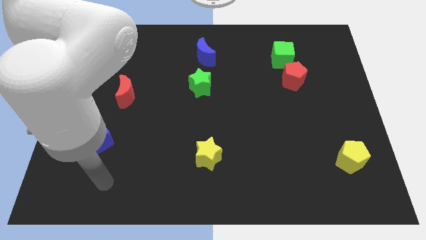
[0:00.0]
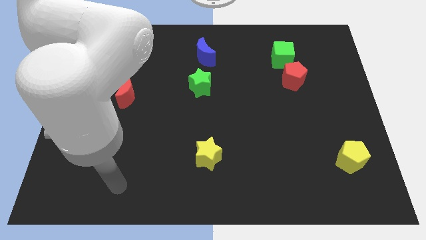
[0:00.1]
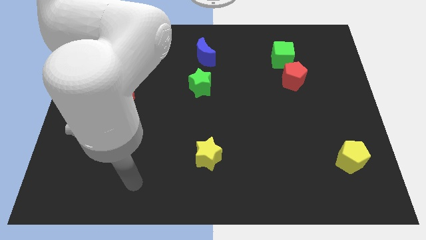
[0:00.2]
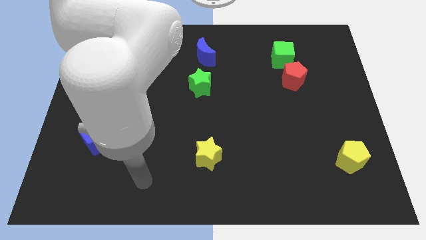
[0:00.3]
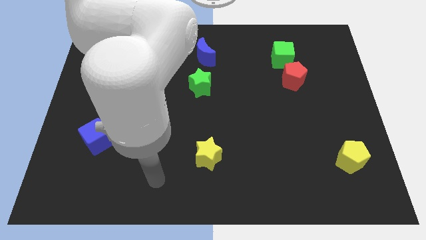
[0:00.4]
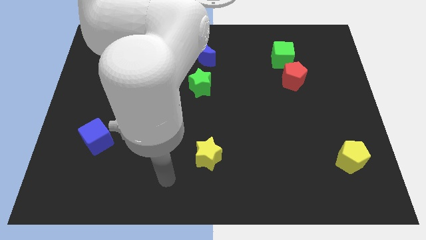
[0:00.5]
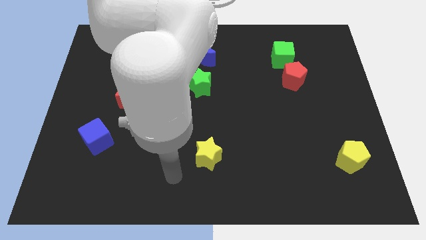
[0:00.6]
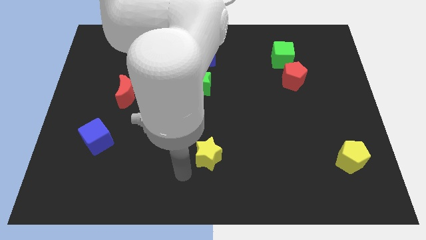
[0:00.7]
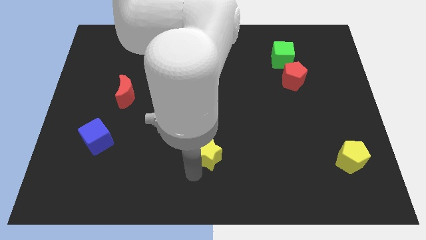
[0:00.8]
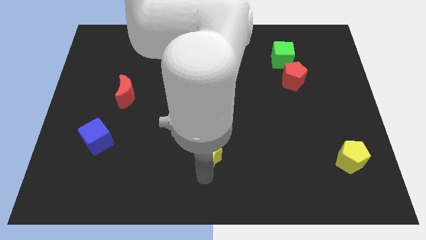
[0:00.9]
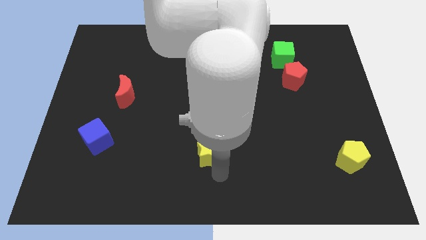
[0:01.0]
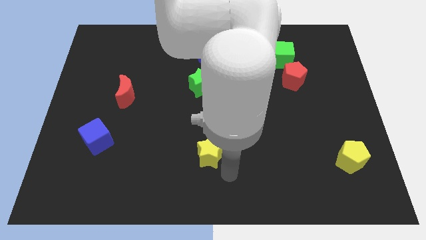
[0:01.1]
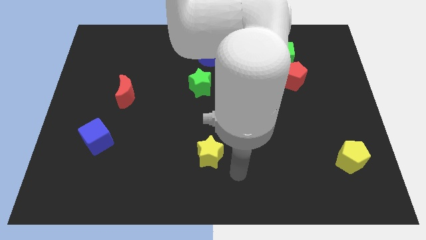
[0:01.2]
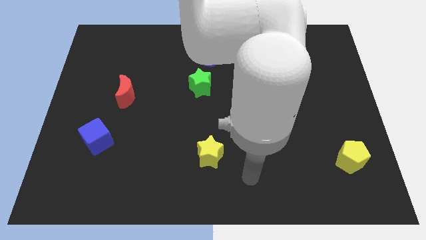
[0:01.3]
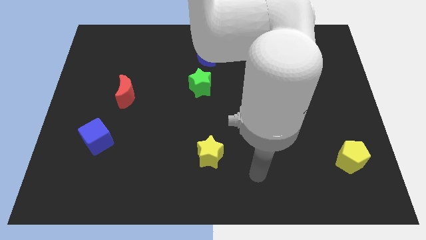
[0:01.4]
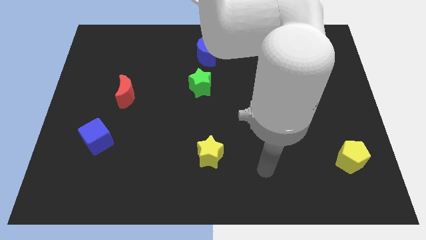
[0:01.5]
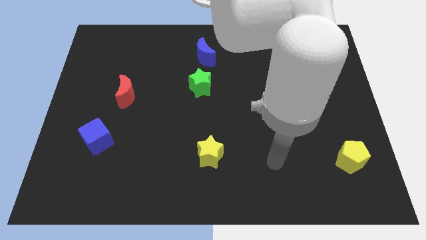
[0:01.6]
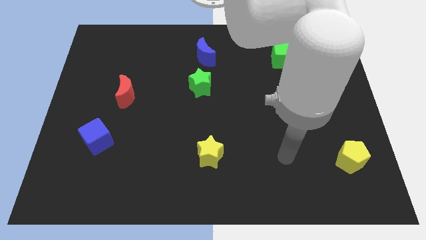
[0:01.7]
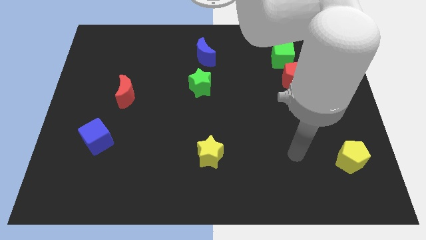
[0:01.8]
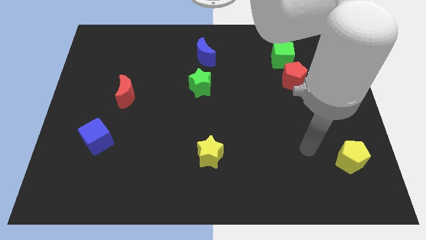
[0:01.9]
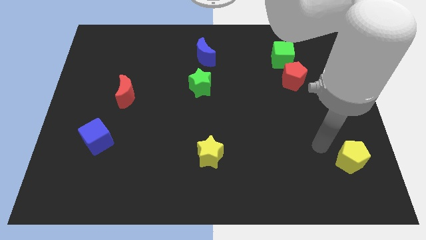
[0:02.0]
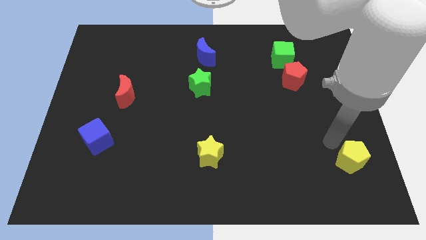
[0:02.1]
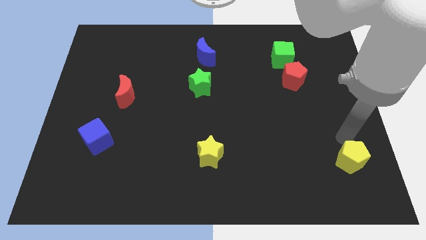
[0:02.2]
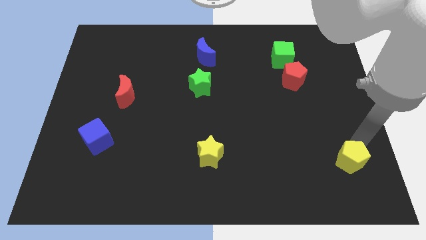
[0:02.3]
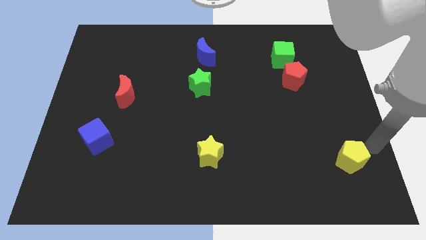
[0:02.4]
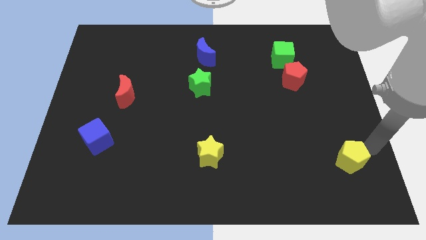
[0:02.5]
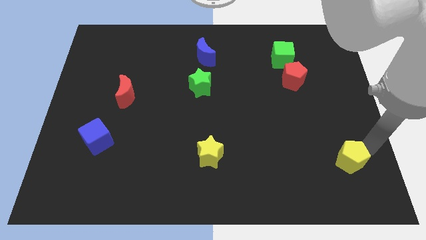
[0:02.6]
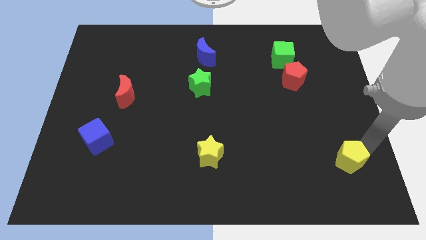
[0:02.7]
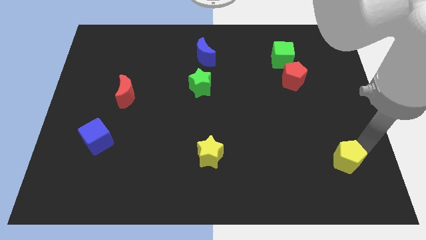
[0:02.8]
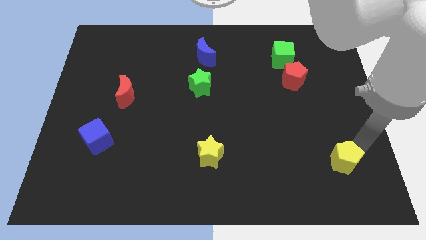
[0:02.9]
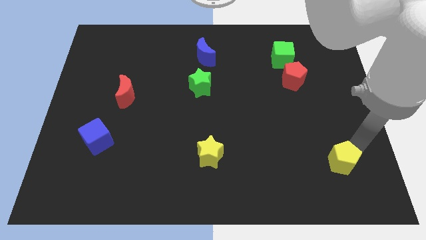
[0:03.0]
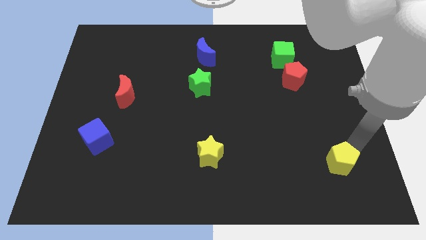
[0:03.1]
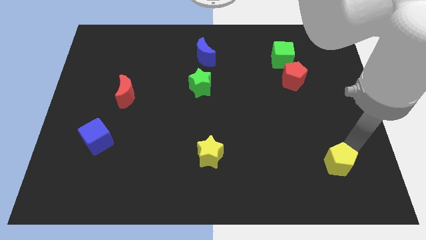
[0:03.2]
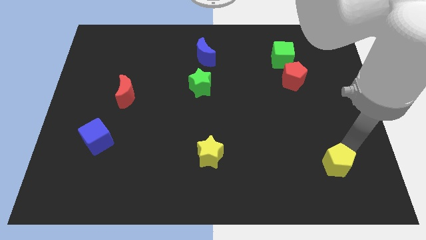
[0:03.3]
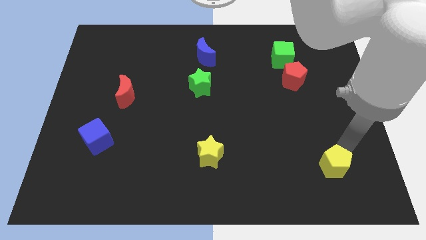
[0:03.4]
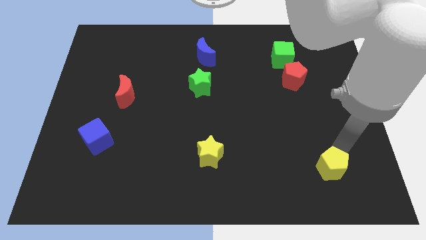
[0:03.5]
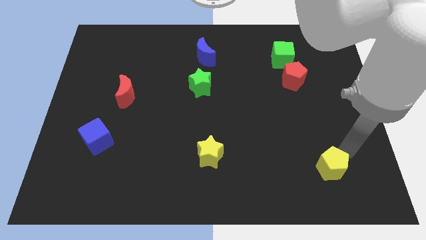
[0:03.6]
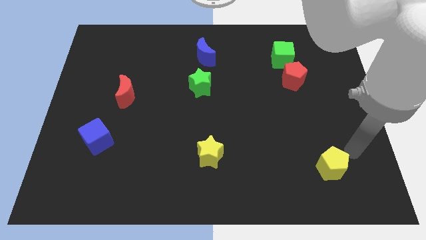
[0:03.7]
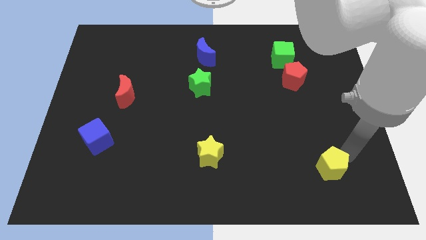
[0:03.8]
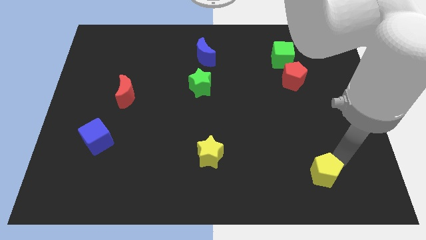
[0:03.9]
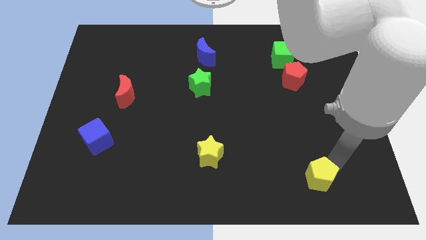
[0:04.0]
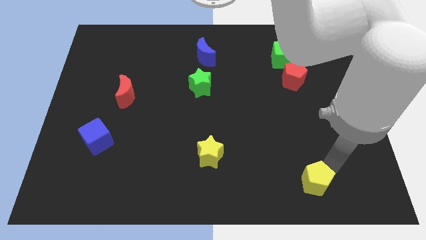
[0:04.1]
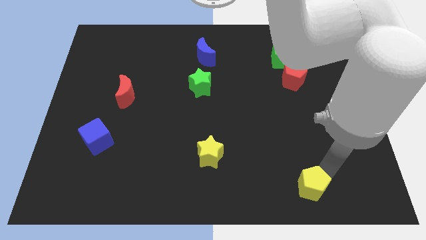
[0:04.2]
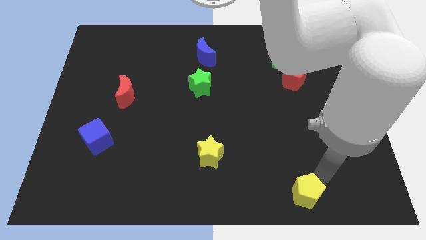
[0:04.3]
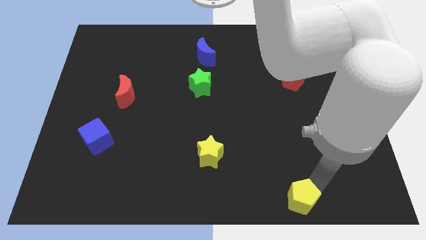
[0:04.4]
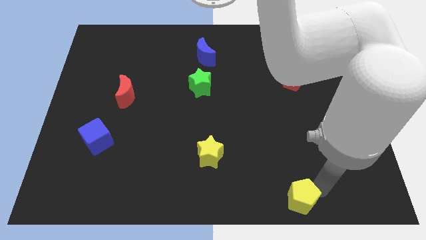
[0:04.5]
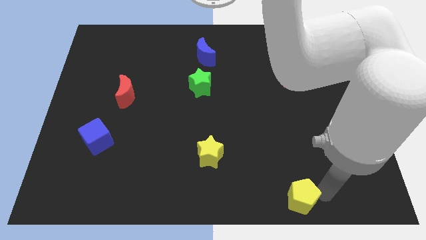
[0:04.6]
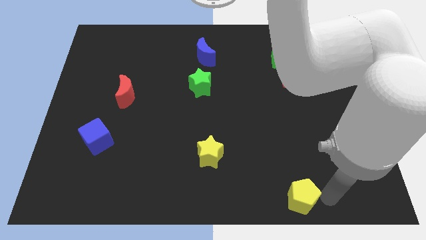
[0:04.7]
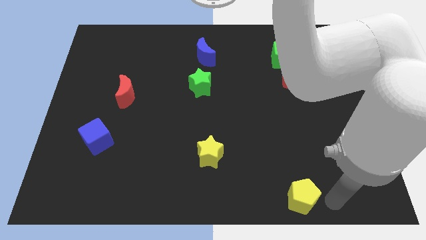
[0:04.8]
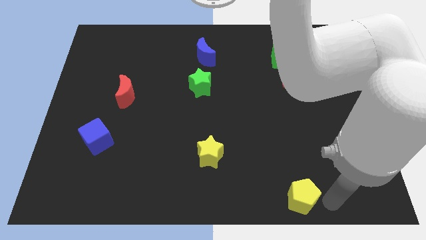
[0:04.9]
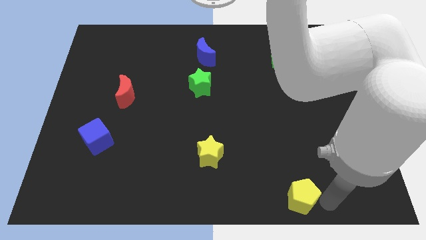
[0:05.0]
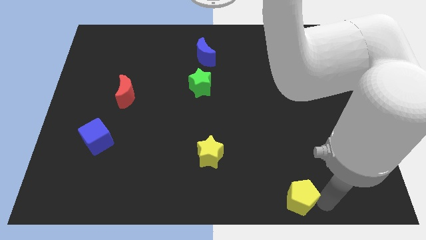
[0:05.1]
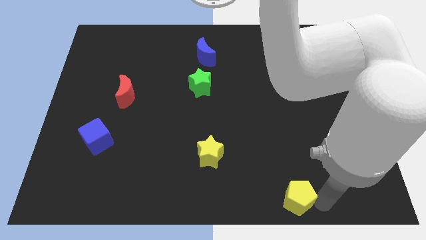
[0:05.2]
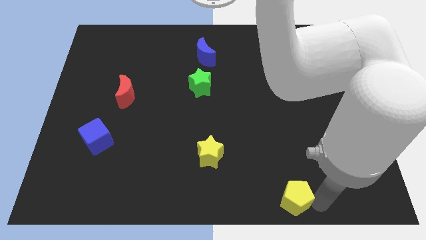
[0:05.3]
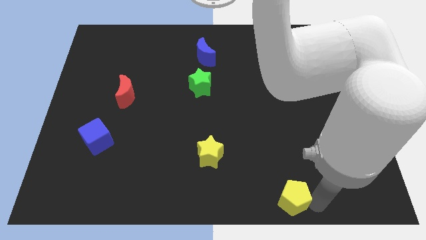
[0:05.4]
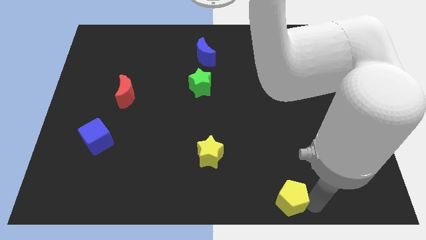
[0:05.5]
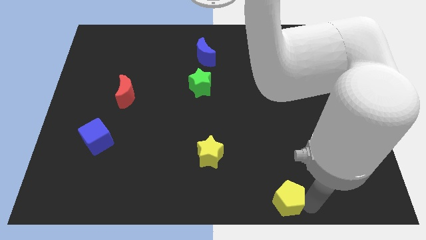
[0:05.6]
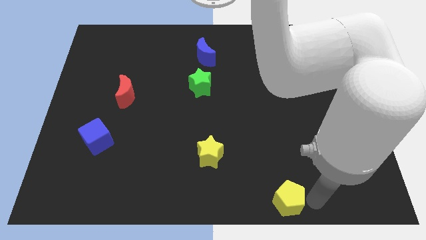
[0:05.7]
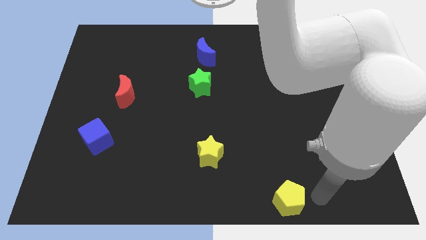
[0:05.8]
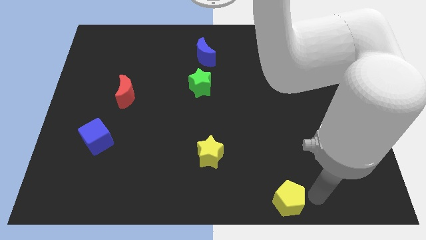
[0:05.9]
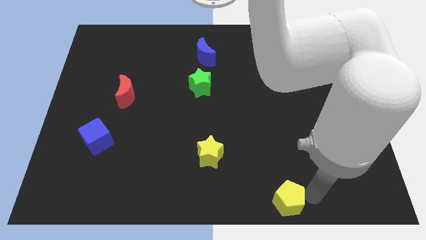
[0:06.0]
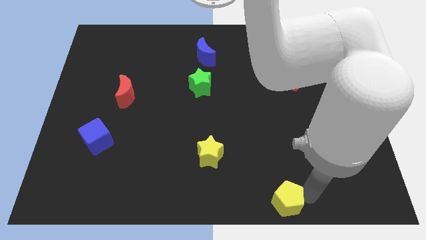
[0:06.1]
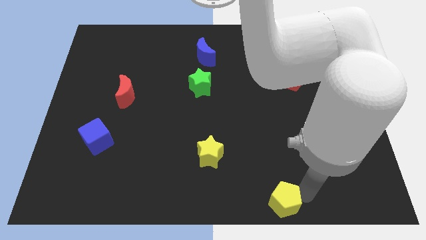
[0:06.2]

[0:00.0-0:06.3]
put the yellow pentagon to the bottom
